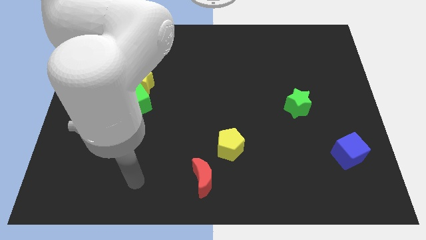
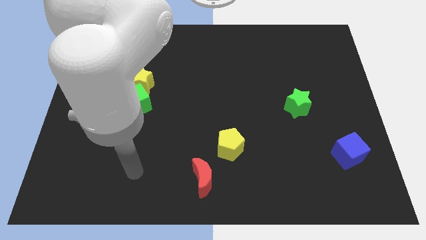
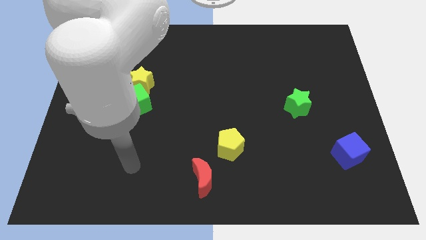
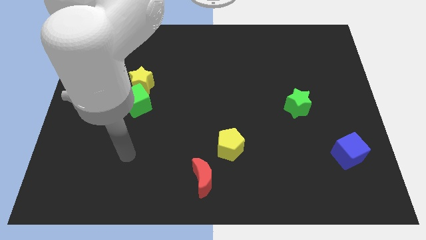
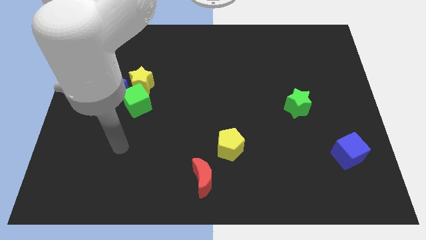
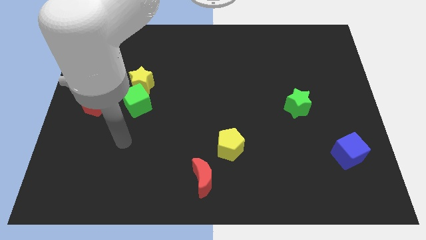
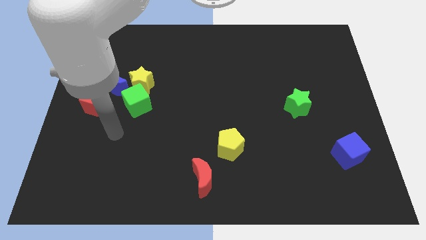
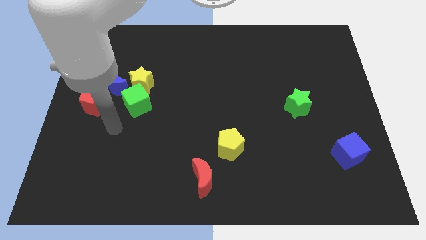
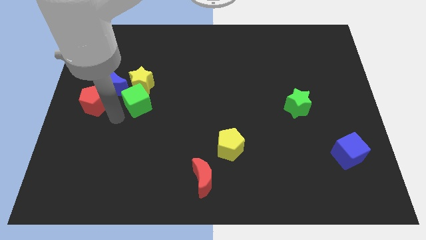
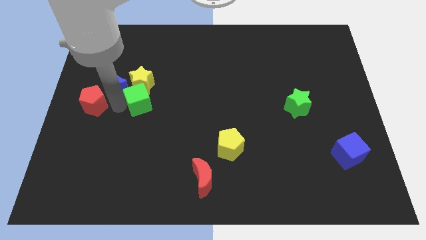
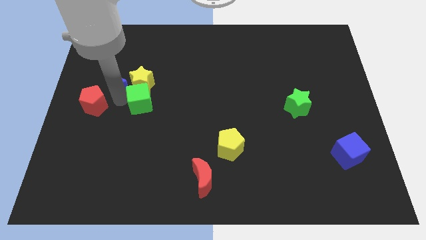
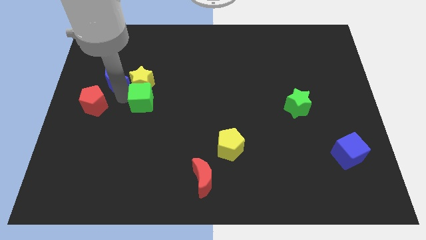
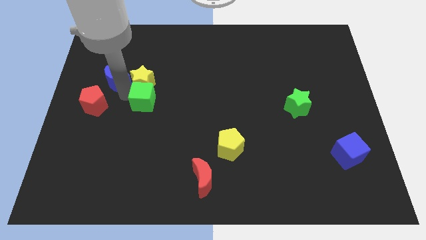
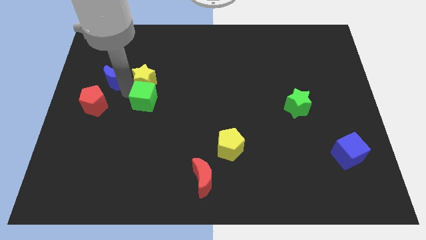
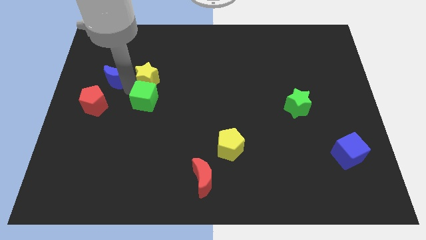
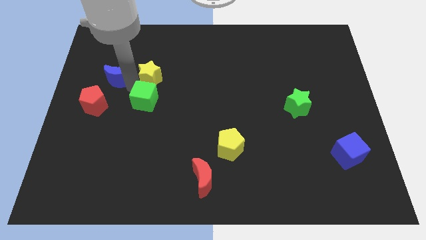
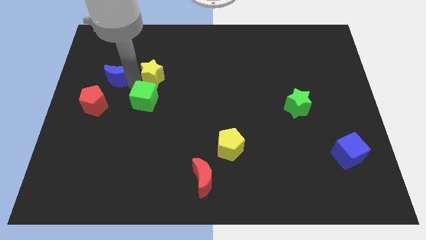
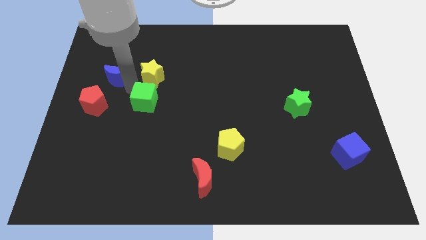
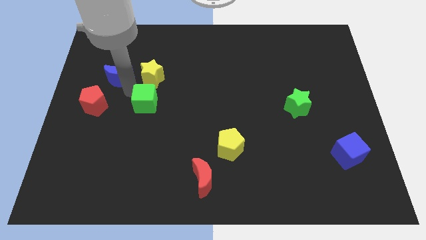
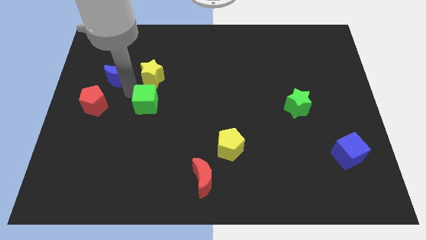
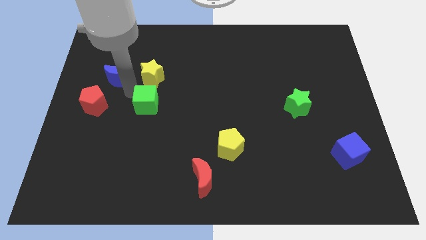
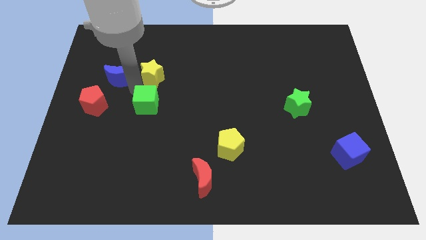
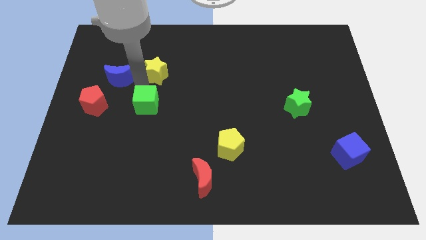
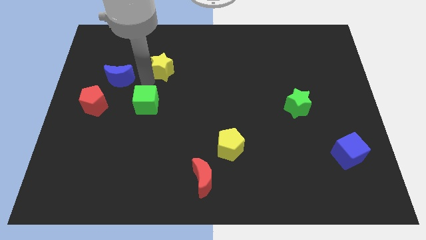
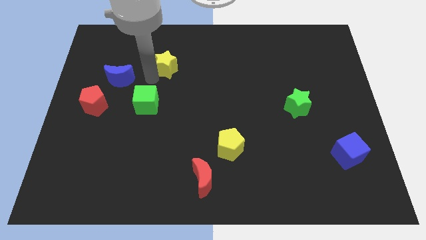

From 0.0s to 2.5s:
separate the yellow star from the green cube and blue moon

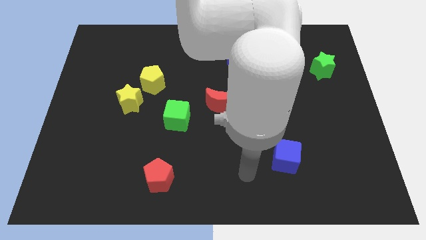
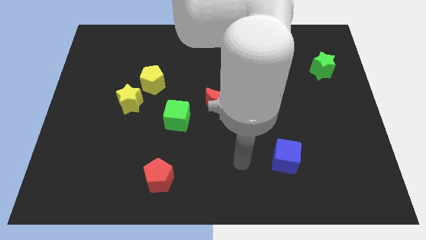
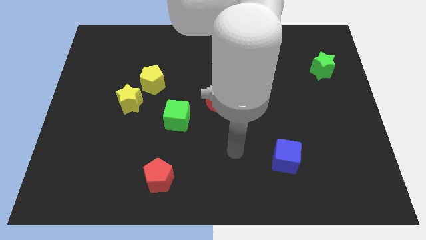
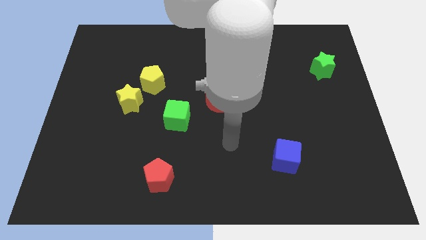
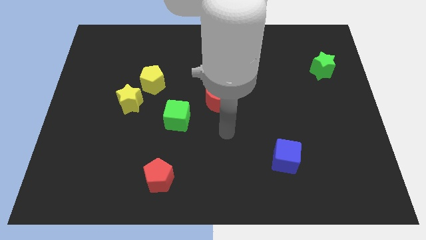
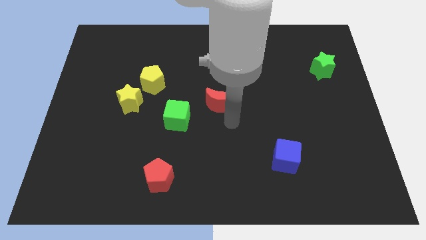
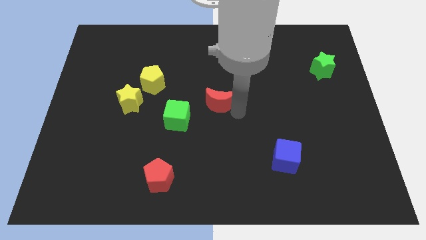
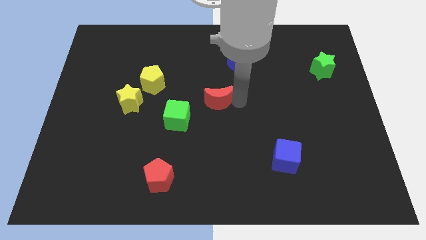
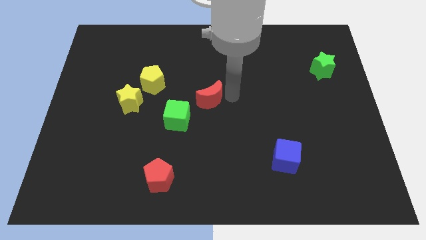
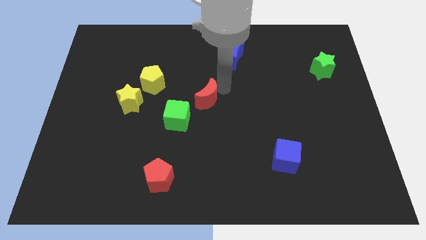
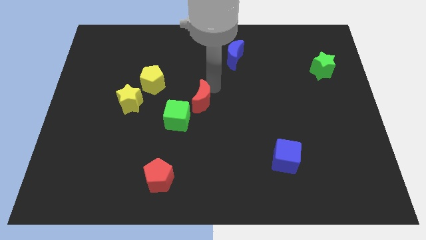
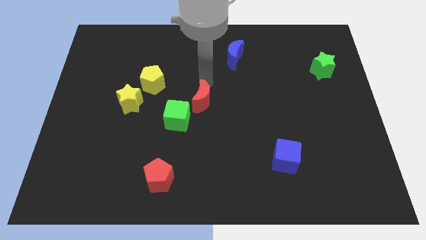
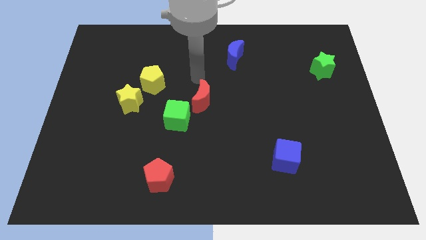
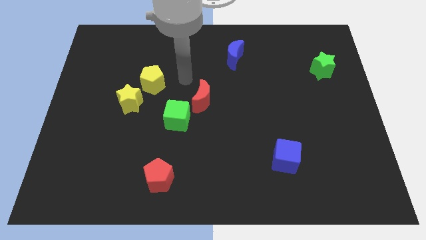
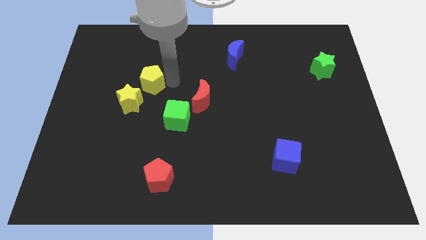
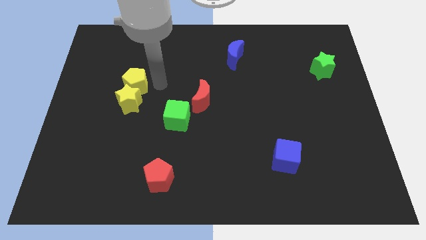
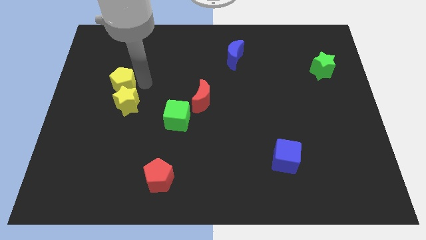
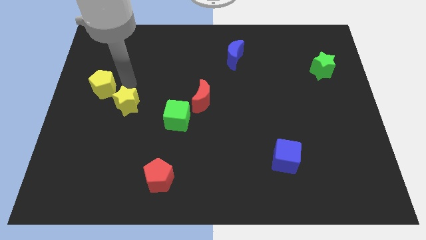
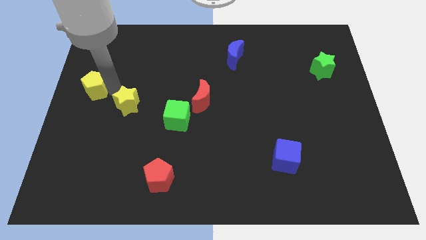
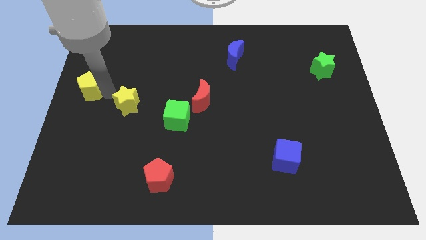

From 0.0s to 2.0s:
move the yellow star away from the yellow pentagon

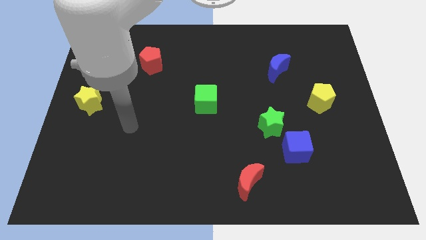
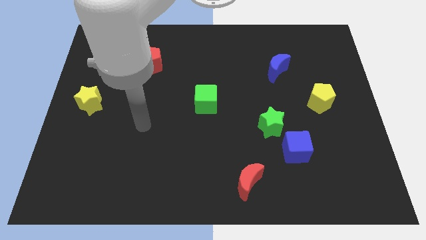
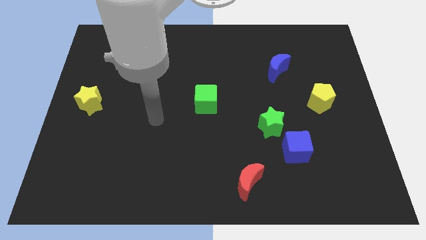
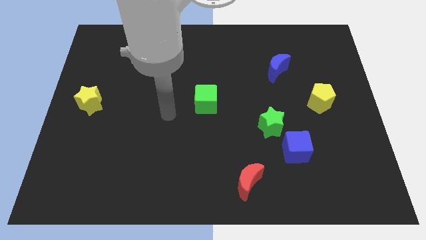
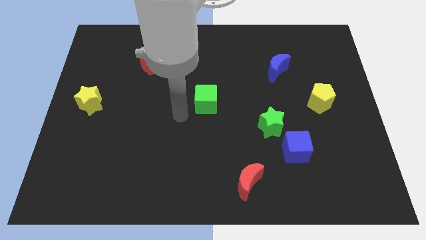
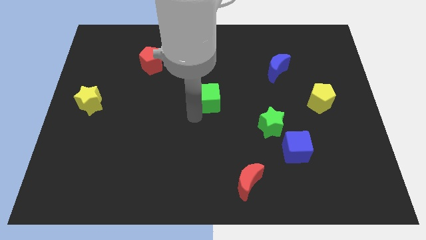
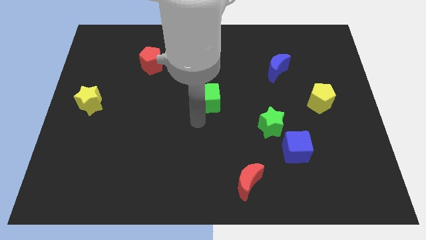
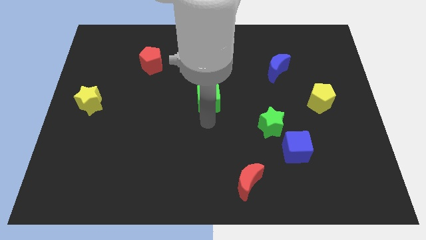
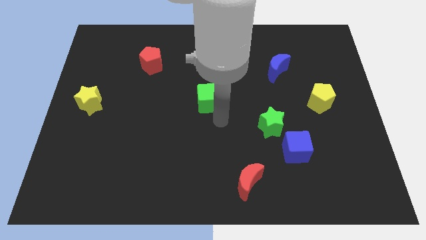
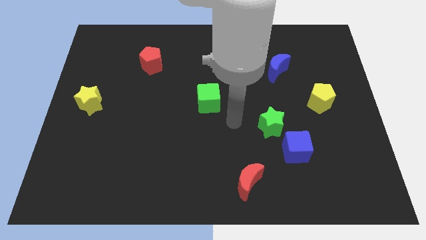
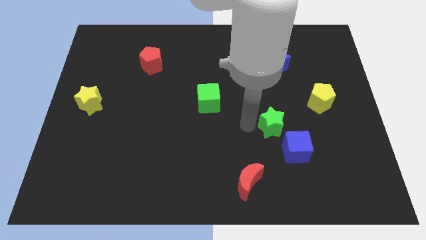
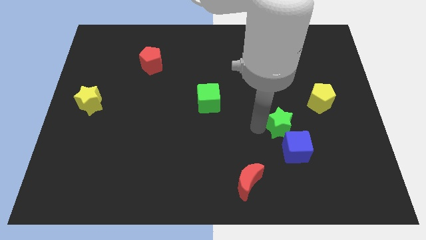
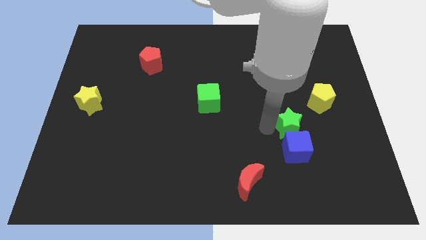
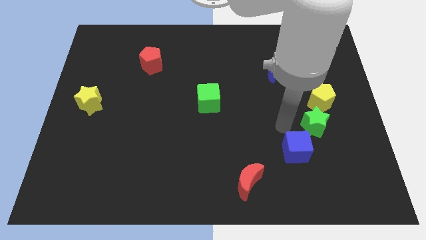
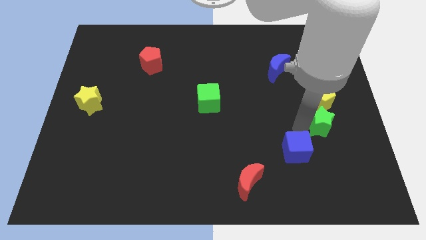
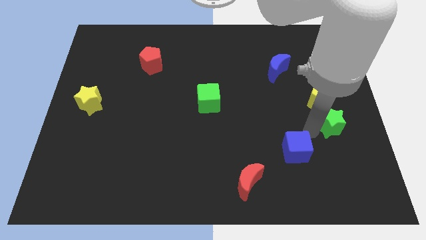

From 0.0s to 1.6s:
separate the blue cube from the green star

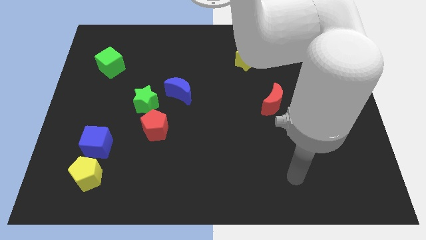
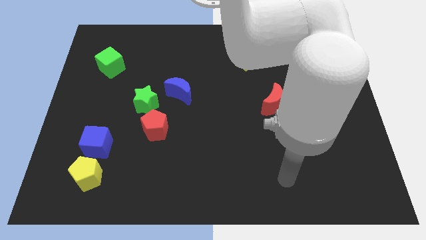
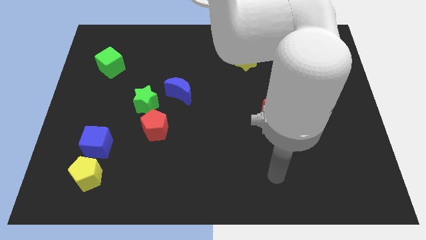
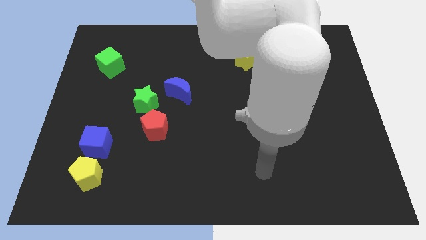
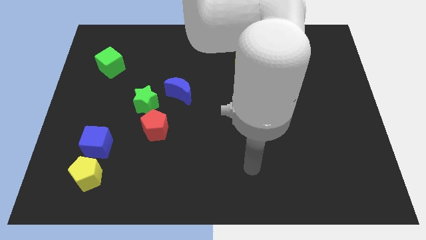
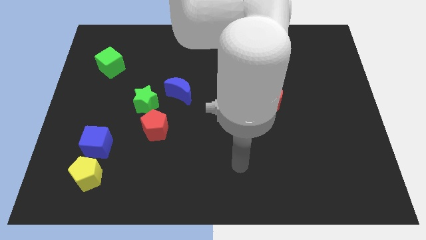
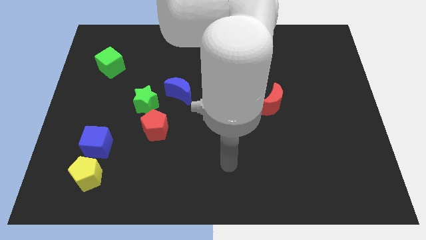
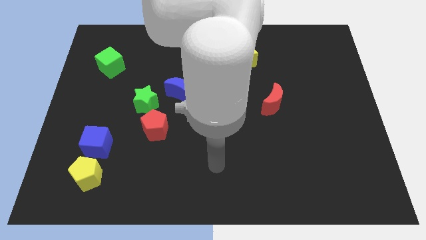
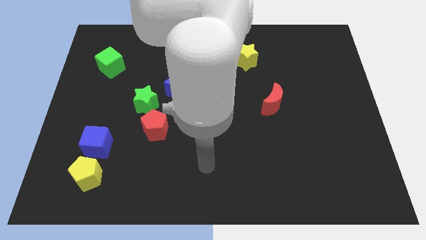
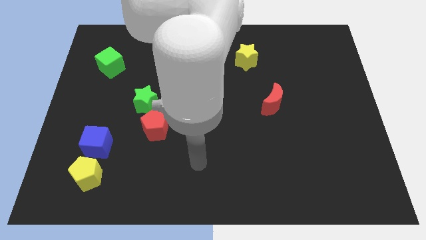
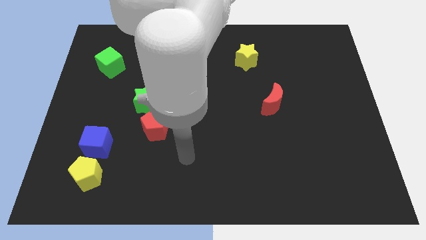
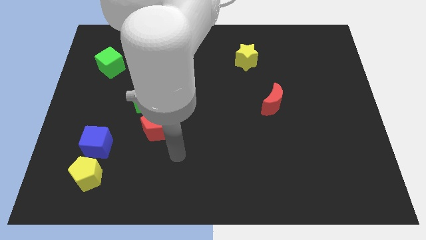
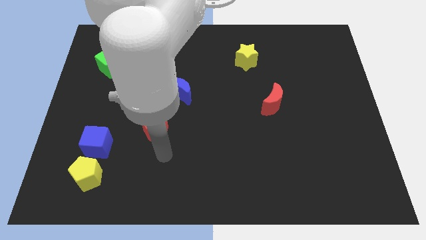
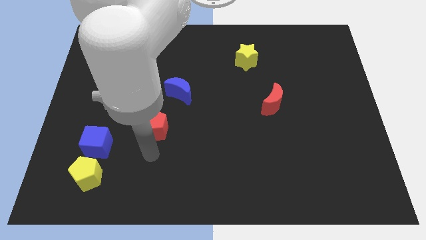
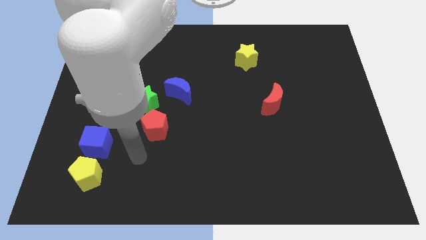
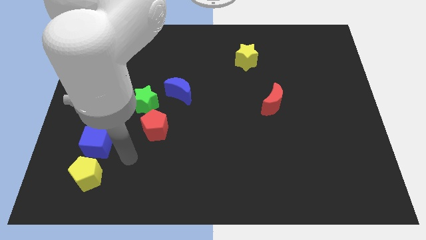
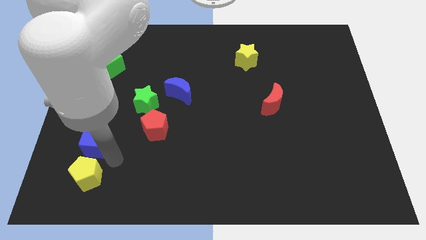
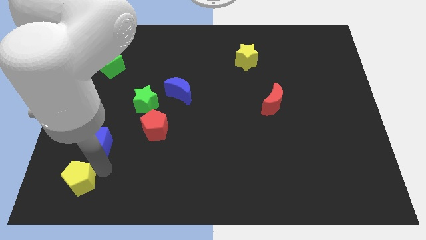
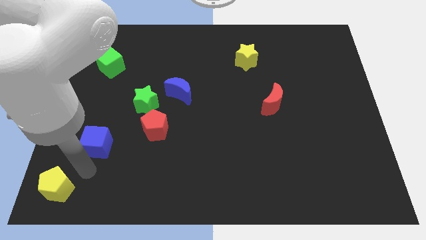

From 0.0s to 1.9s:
move the blue cube away from the yellow pentagon

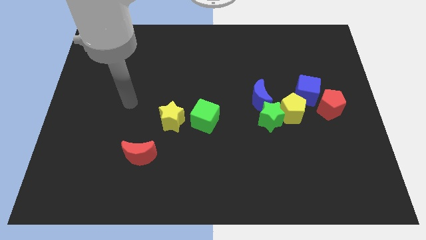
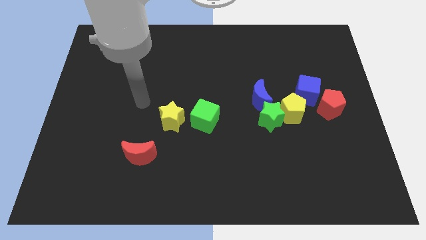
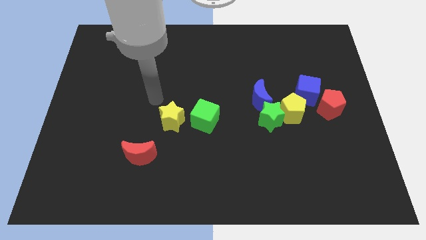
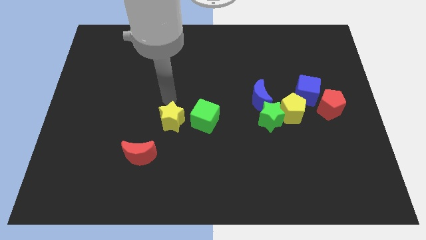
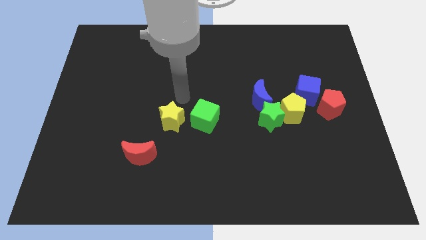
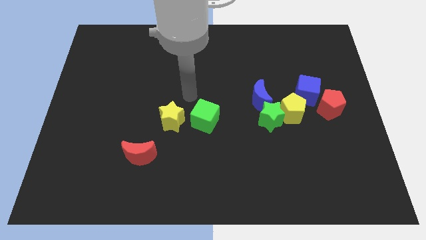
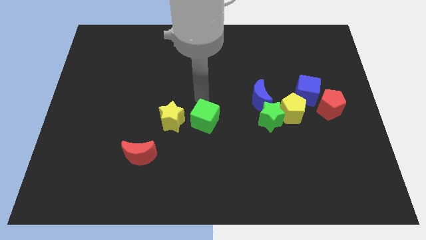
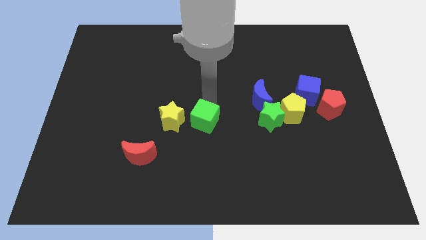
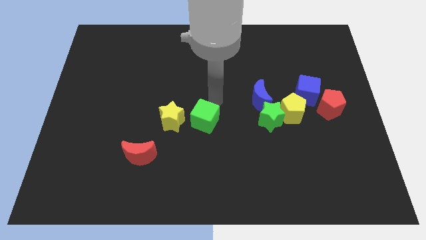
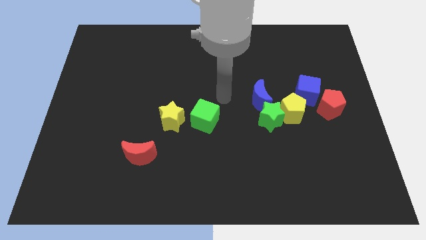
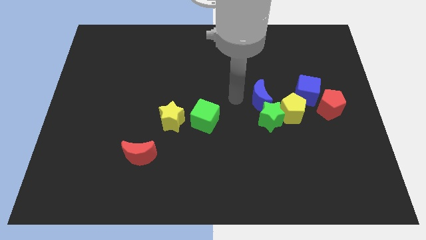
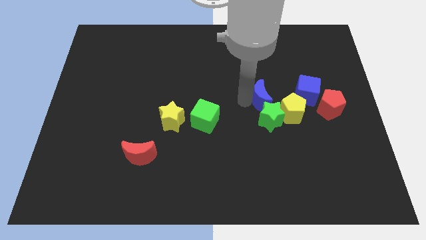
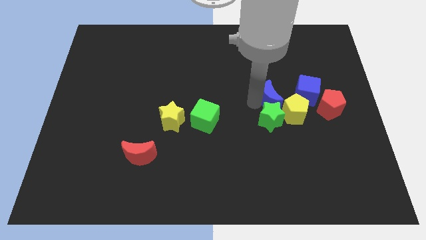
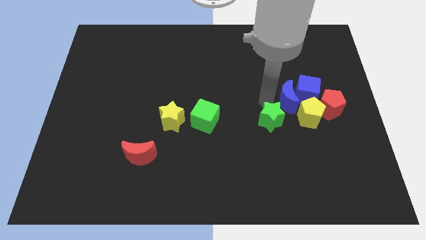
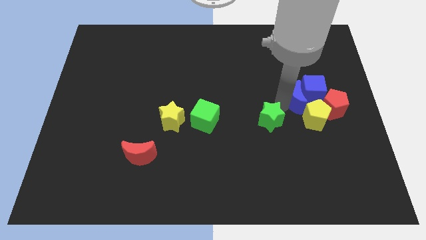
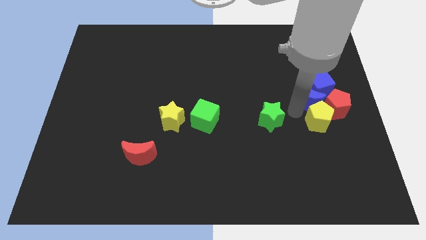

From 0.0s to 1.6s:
pull the green star apart from the yellow pentagon and blue moon
